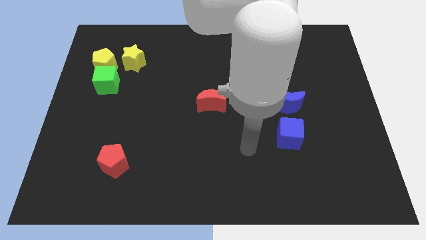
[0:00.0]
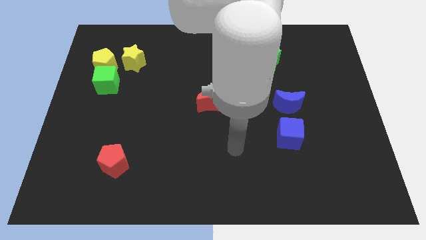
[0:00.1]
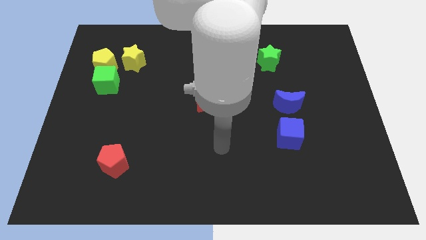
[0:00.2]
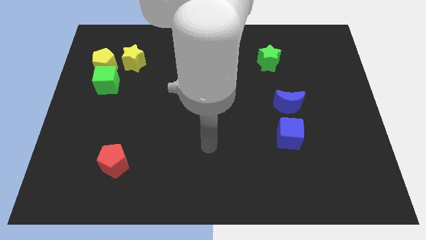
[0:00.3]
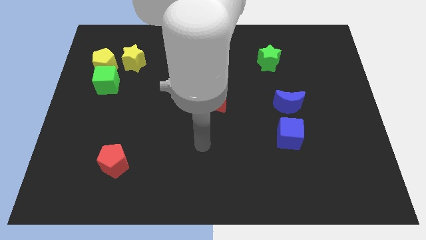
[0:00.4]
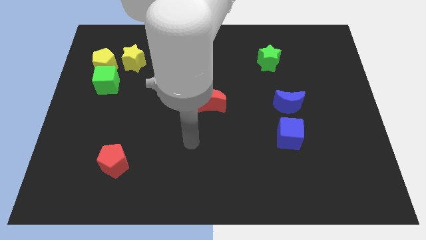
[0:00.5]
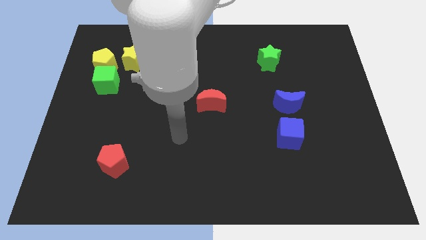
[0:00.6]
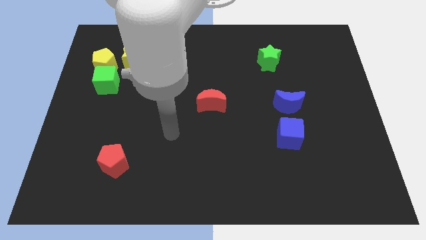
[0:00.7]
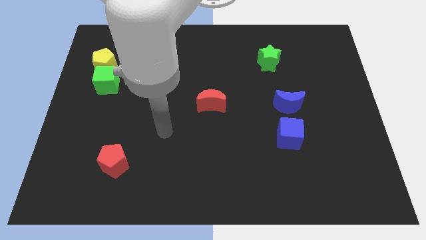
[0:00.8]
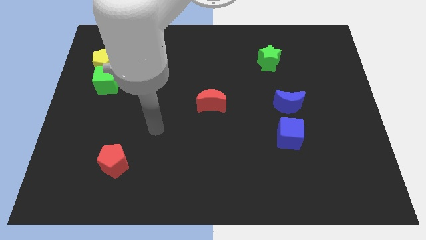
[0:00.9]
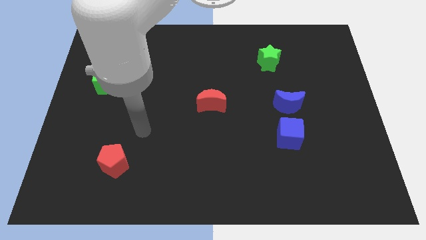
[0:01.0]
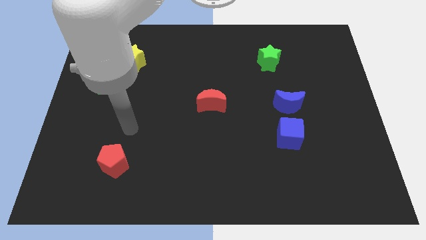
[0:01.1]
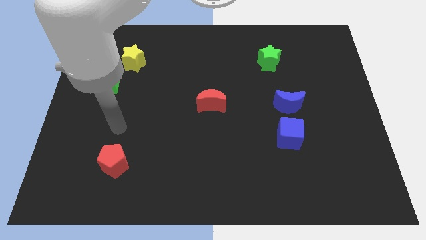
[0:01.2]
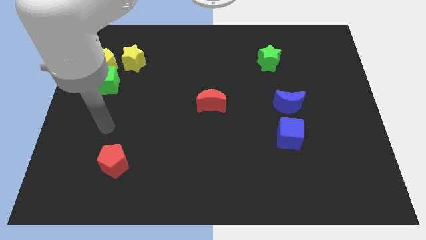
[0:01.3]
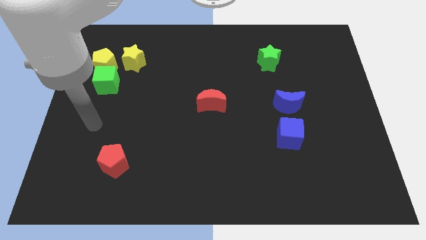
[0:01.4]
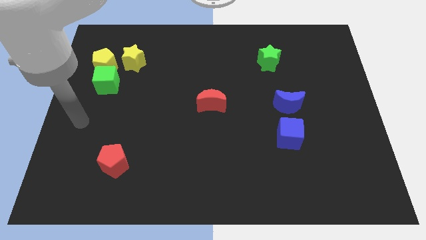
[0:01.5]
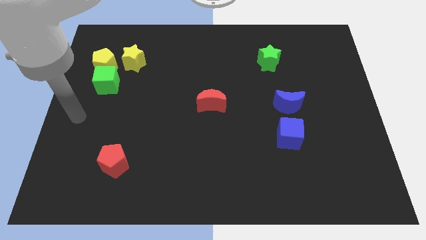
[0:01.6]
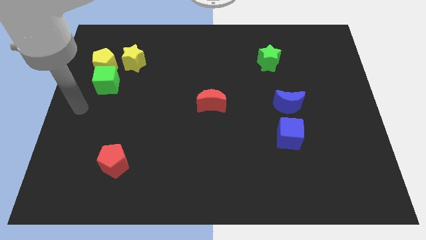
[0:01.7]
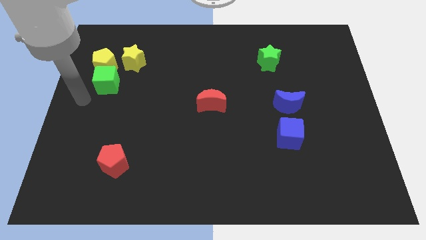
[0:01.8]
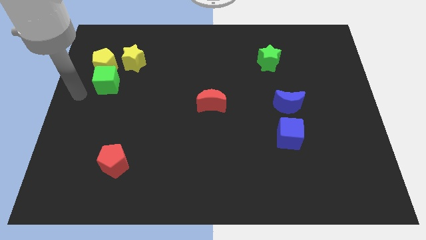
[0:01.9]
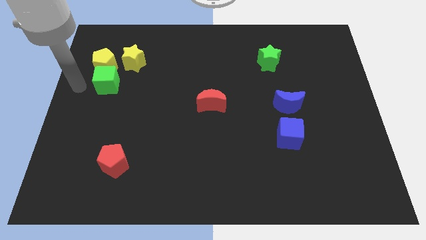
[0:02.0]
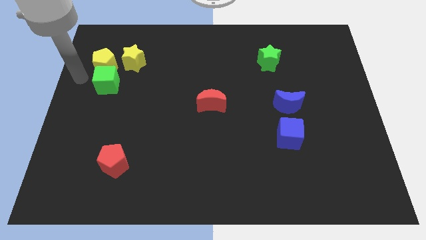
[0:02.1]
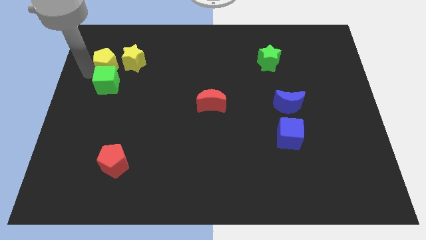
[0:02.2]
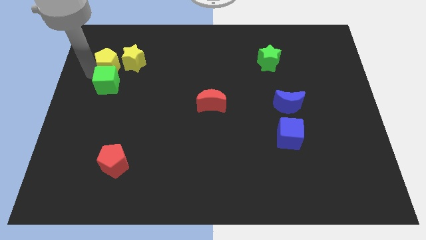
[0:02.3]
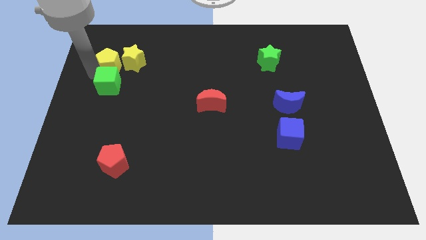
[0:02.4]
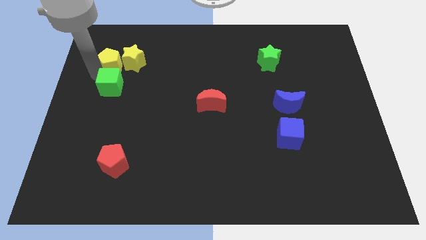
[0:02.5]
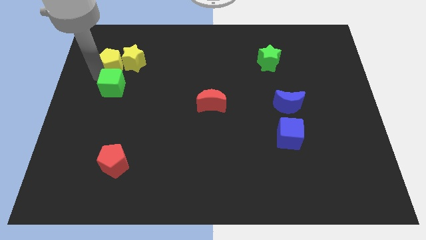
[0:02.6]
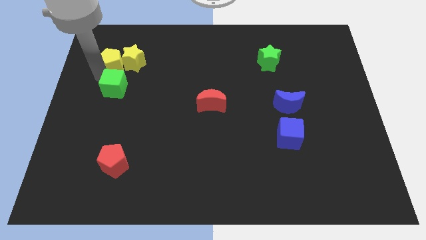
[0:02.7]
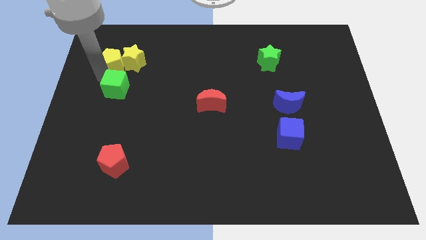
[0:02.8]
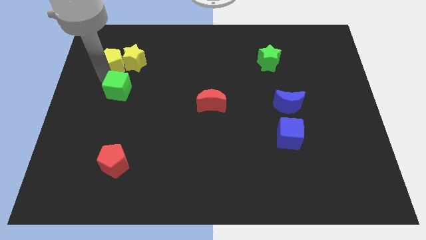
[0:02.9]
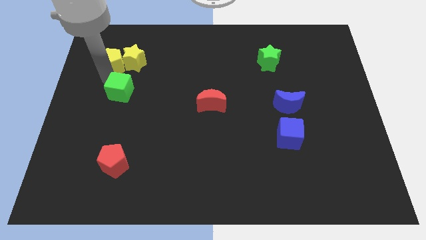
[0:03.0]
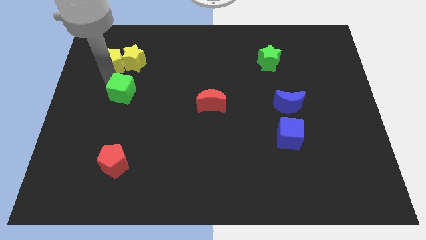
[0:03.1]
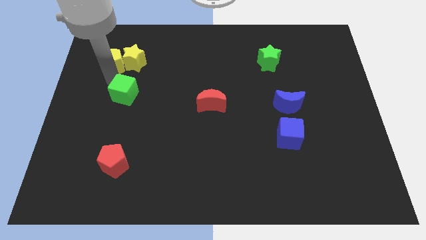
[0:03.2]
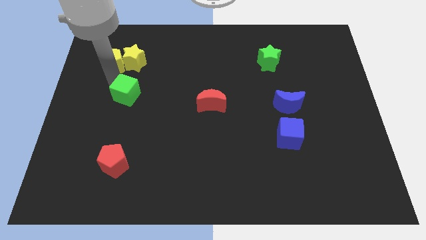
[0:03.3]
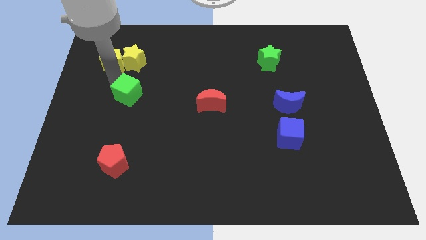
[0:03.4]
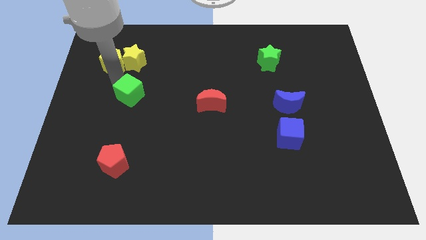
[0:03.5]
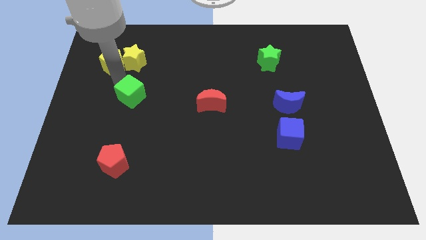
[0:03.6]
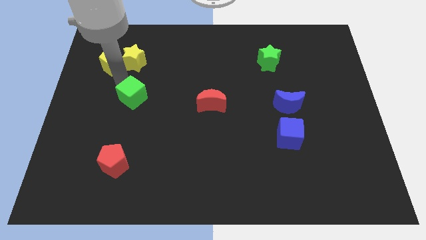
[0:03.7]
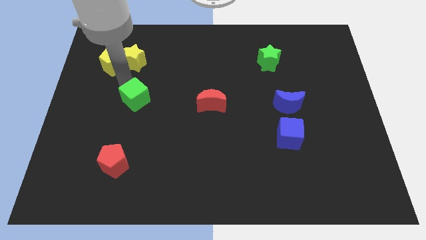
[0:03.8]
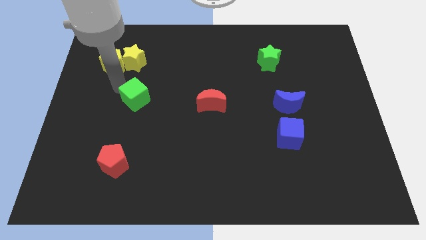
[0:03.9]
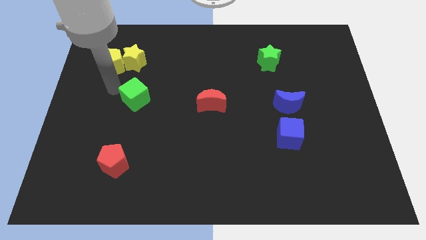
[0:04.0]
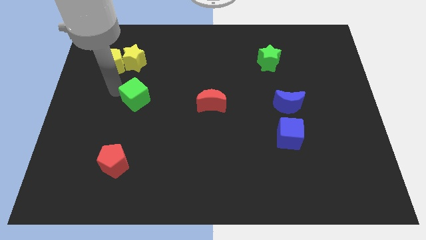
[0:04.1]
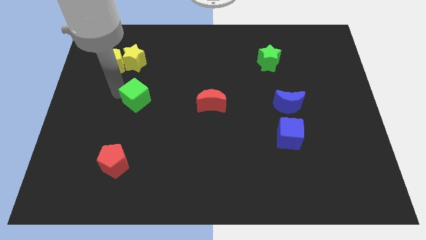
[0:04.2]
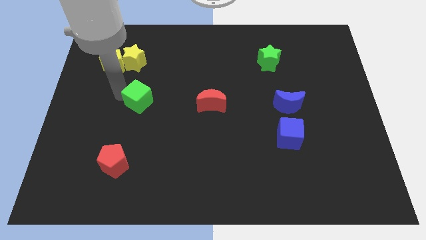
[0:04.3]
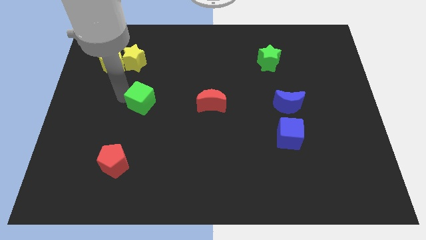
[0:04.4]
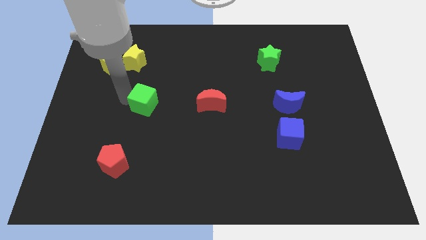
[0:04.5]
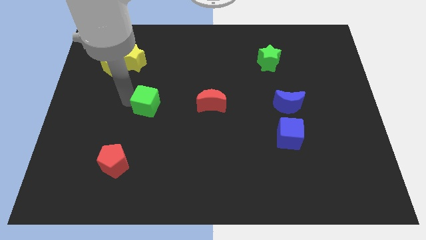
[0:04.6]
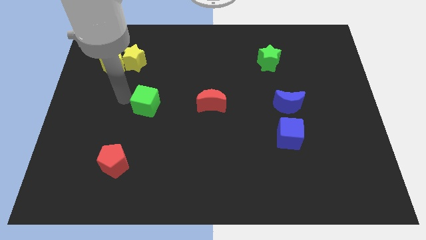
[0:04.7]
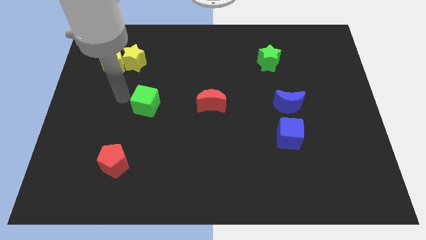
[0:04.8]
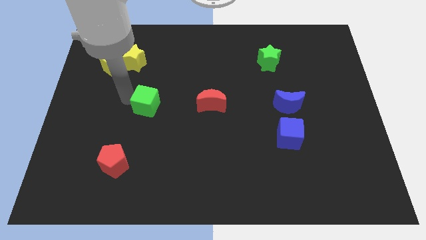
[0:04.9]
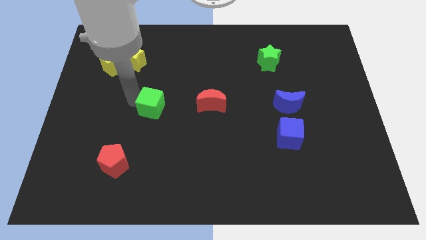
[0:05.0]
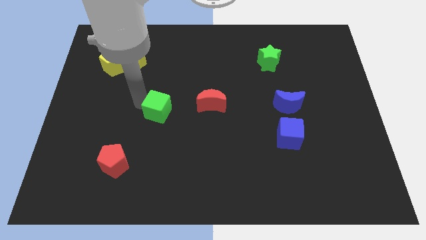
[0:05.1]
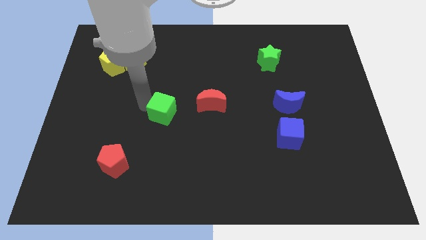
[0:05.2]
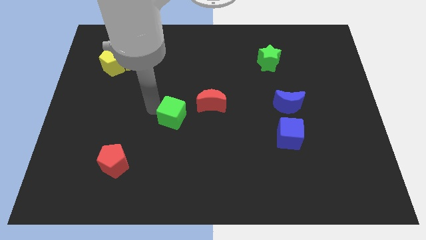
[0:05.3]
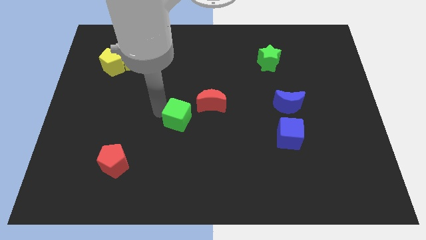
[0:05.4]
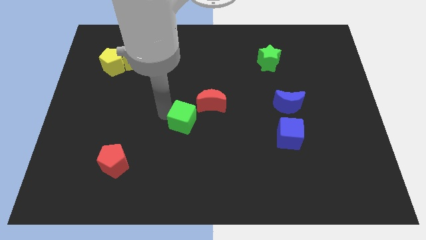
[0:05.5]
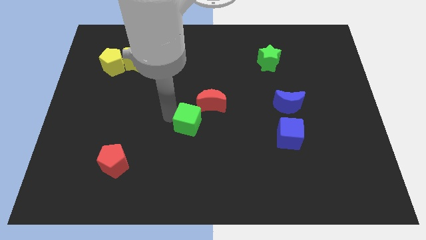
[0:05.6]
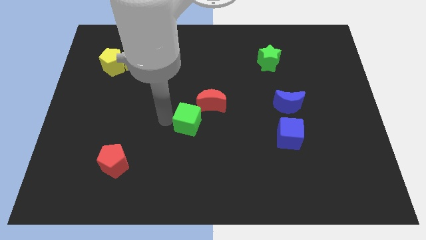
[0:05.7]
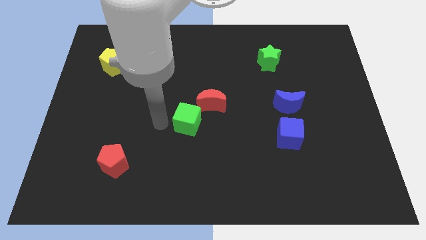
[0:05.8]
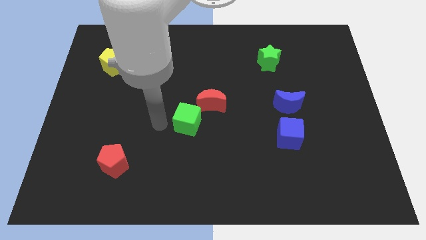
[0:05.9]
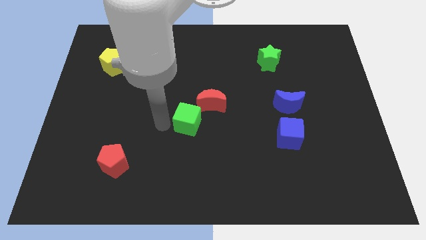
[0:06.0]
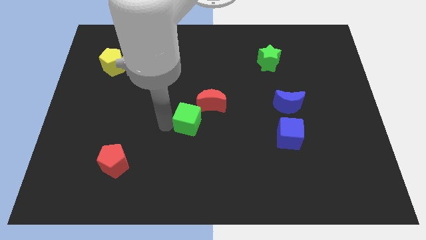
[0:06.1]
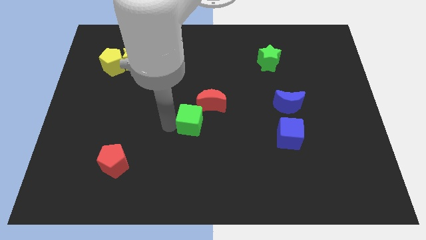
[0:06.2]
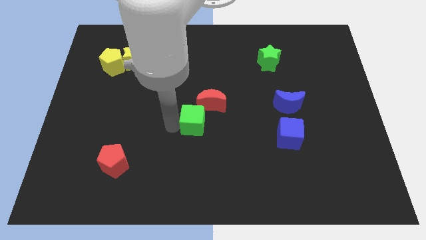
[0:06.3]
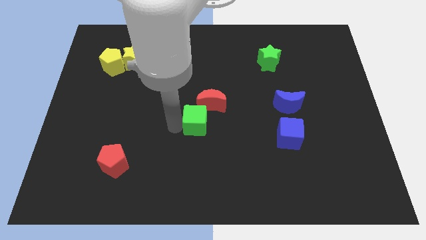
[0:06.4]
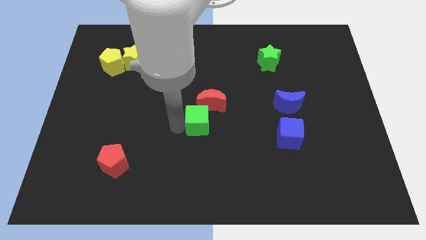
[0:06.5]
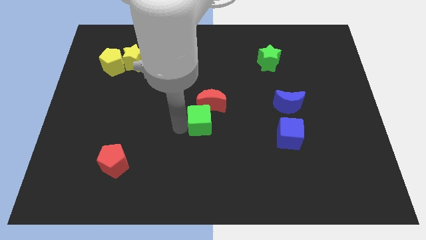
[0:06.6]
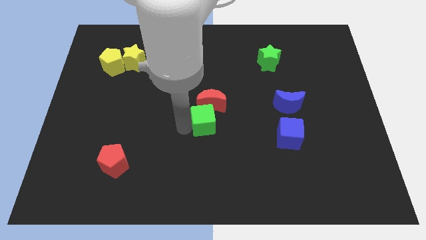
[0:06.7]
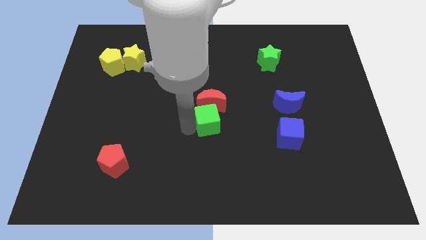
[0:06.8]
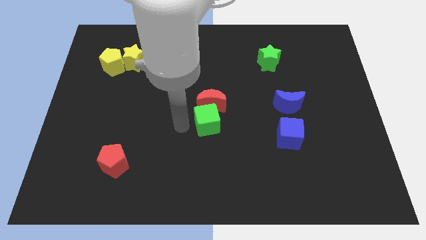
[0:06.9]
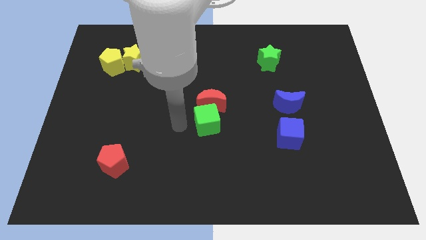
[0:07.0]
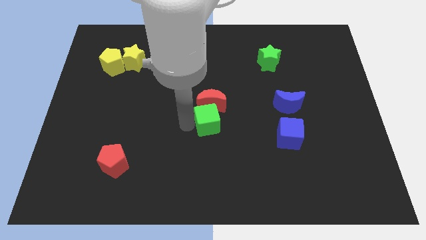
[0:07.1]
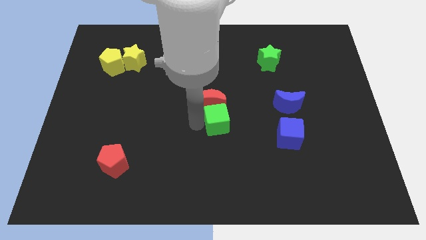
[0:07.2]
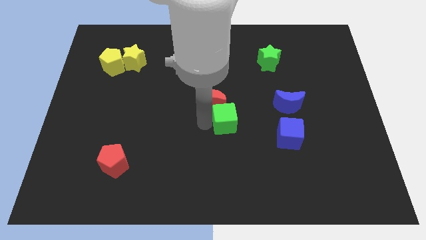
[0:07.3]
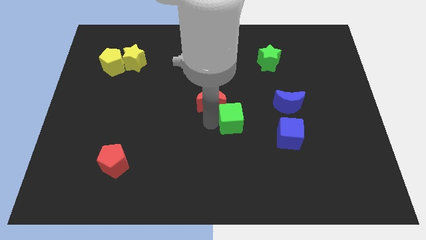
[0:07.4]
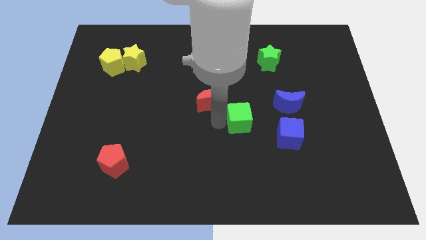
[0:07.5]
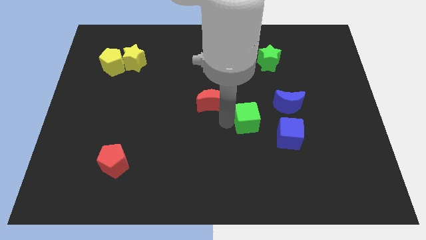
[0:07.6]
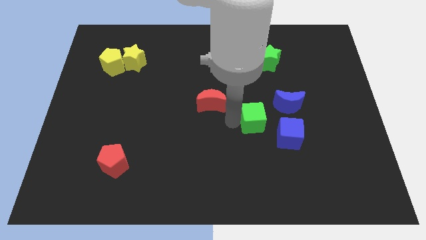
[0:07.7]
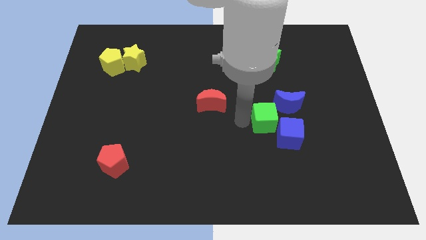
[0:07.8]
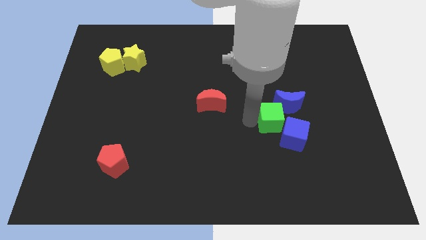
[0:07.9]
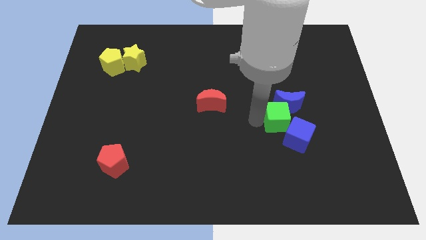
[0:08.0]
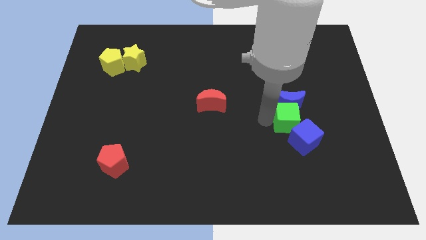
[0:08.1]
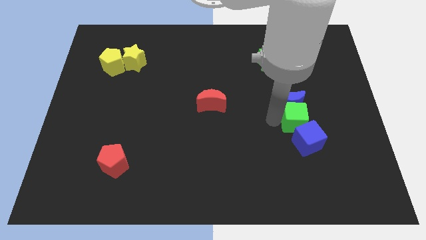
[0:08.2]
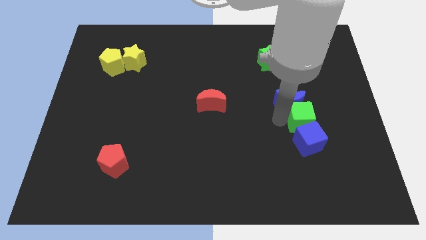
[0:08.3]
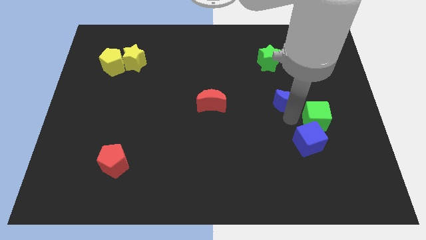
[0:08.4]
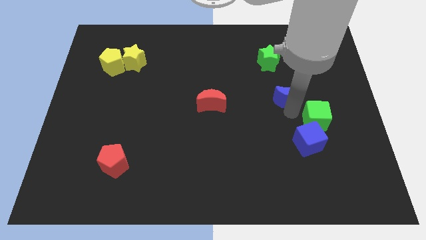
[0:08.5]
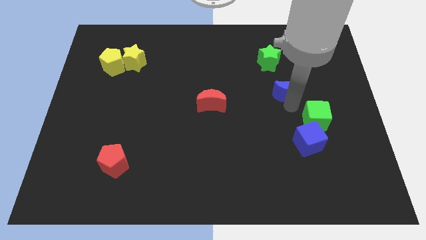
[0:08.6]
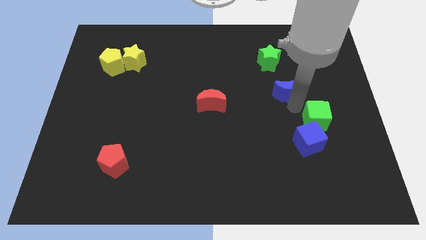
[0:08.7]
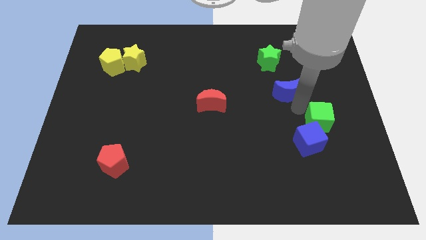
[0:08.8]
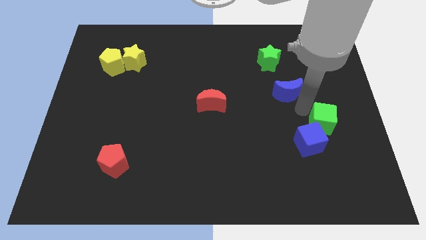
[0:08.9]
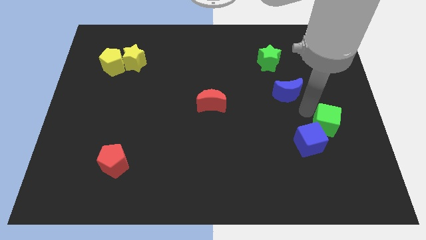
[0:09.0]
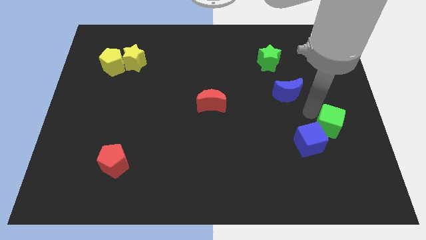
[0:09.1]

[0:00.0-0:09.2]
slide the green cube right of the blue cube
